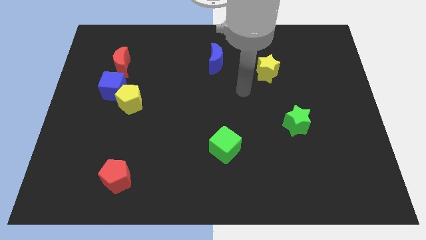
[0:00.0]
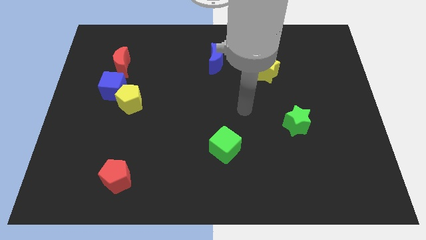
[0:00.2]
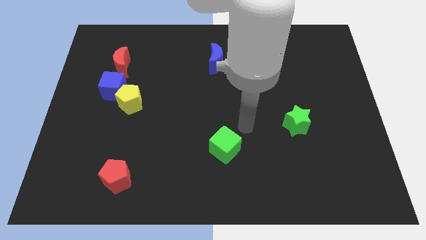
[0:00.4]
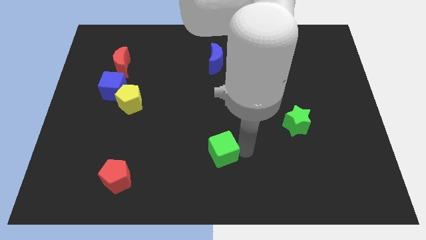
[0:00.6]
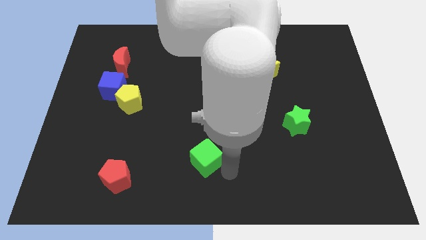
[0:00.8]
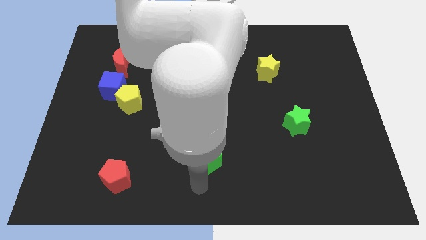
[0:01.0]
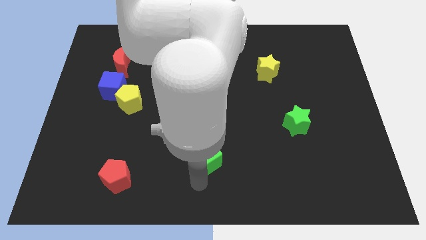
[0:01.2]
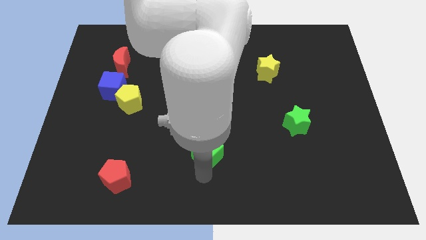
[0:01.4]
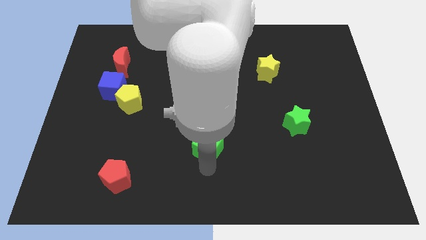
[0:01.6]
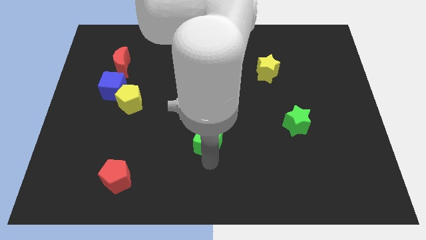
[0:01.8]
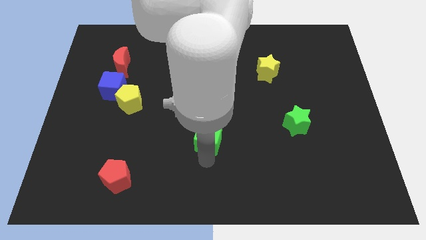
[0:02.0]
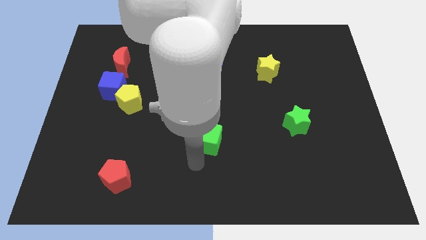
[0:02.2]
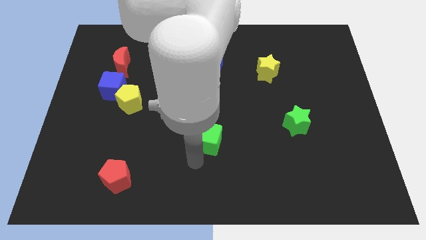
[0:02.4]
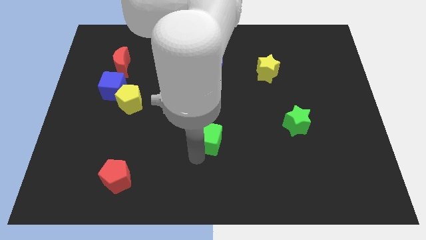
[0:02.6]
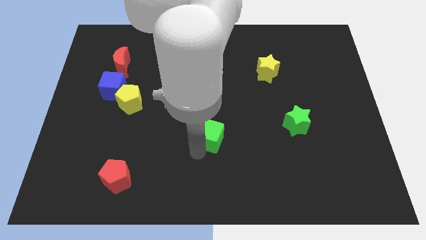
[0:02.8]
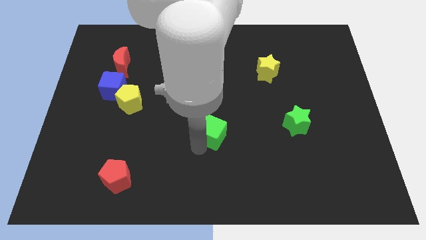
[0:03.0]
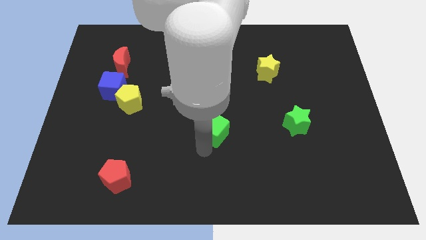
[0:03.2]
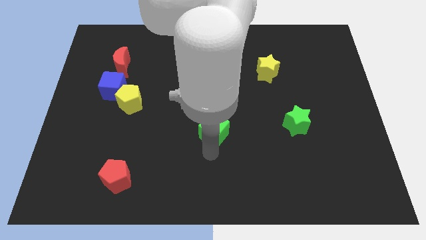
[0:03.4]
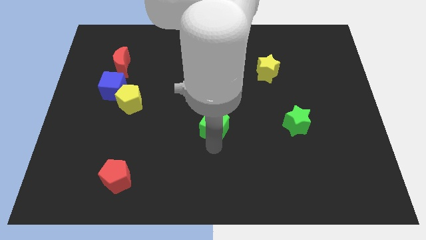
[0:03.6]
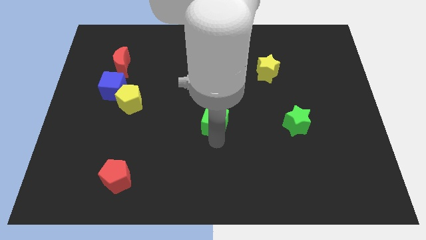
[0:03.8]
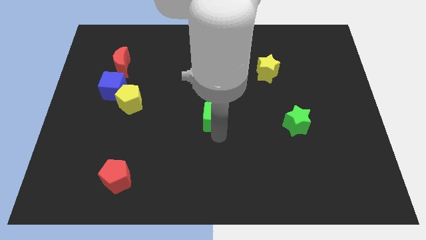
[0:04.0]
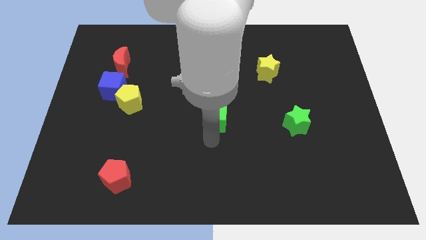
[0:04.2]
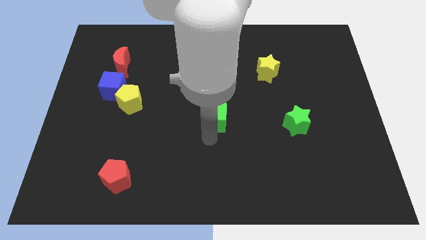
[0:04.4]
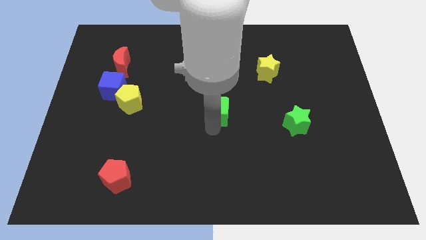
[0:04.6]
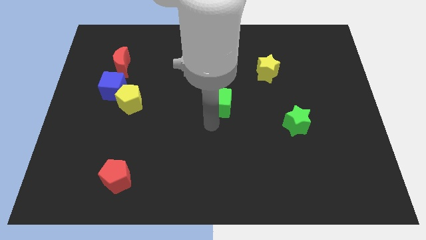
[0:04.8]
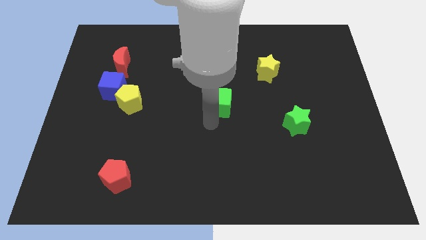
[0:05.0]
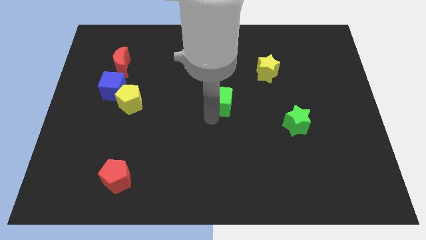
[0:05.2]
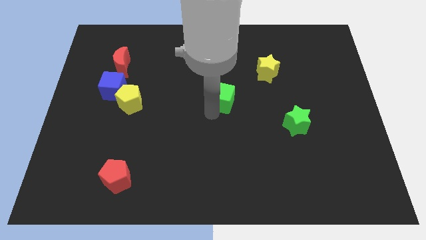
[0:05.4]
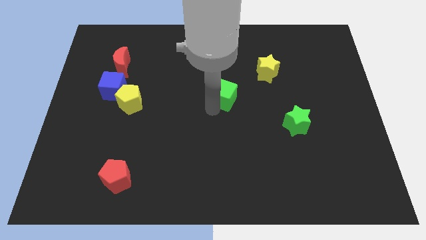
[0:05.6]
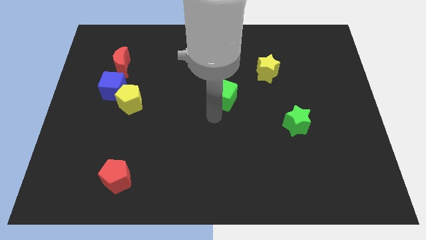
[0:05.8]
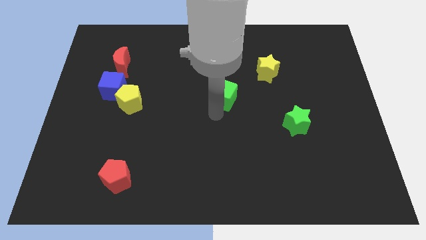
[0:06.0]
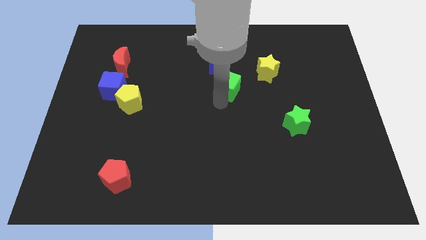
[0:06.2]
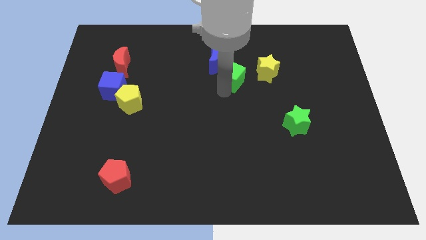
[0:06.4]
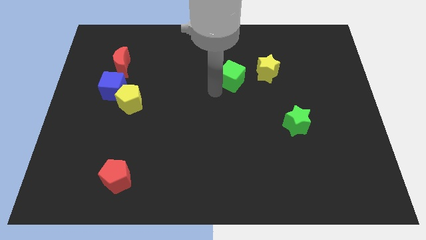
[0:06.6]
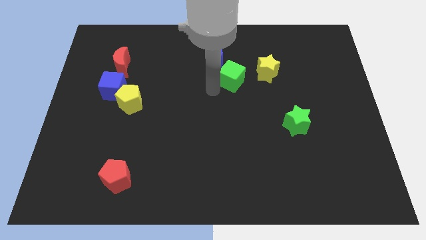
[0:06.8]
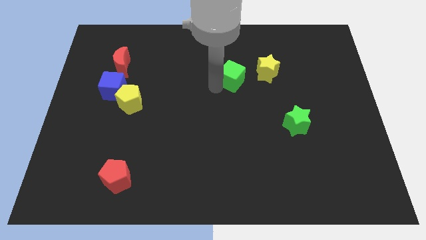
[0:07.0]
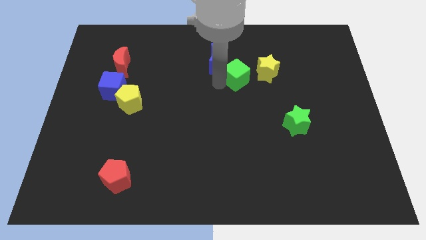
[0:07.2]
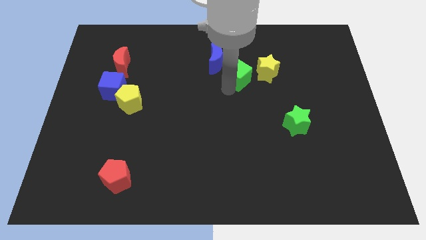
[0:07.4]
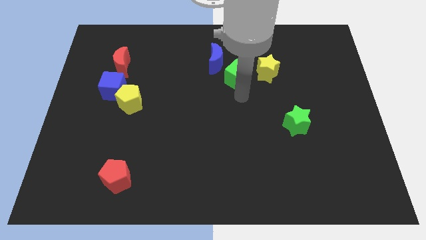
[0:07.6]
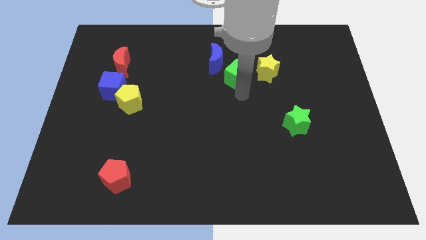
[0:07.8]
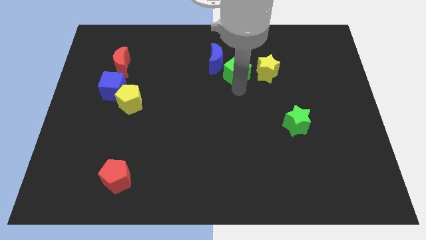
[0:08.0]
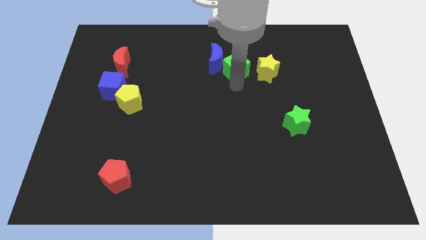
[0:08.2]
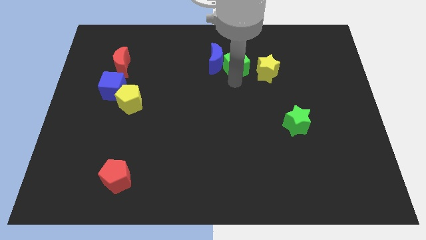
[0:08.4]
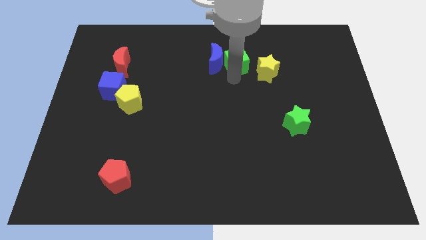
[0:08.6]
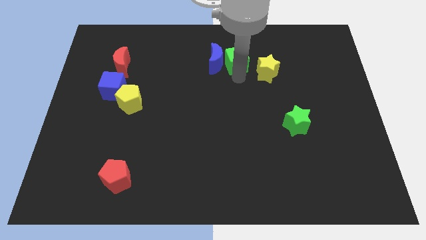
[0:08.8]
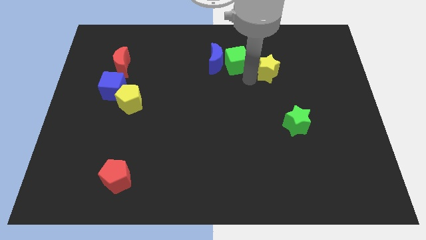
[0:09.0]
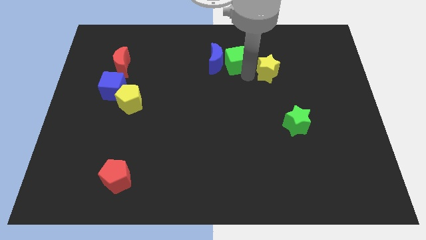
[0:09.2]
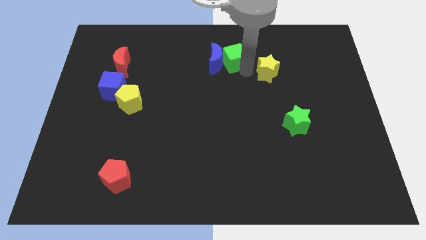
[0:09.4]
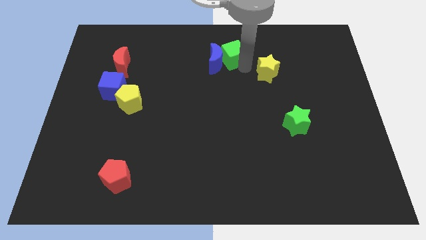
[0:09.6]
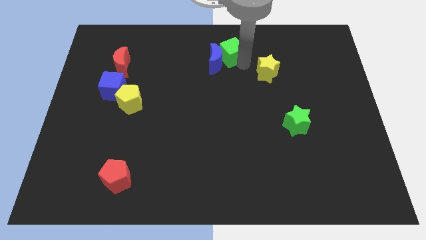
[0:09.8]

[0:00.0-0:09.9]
slide the green cube to the towards your base

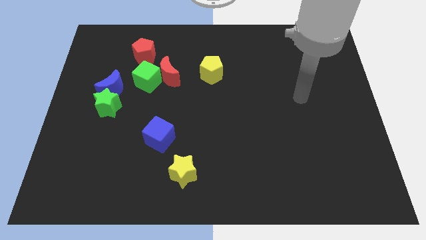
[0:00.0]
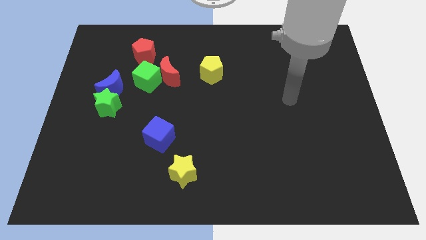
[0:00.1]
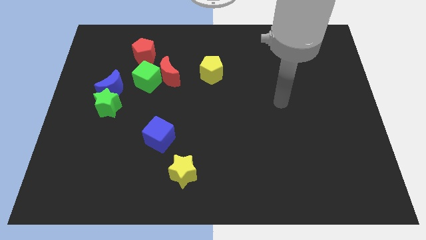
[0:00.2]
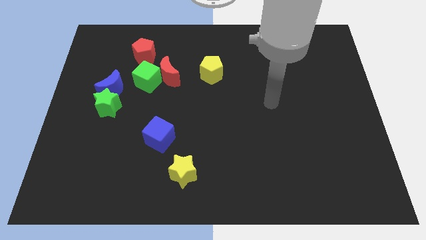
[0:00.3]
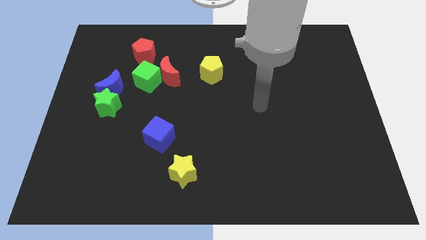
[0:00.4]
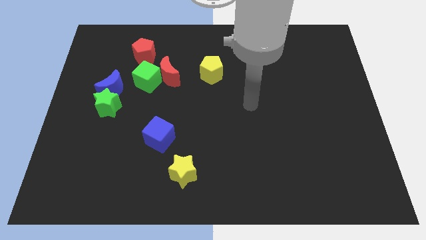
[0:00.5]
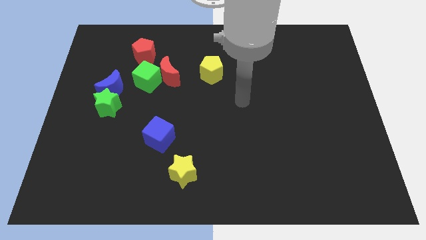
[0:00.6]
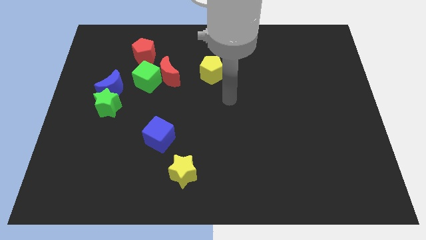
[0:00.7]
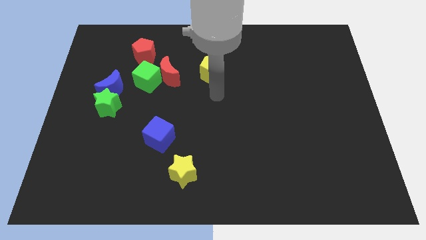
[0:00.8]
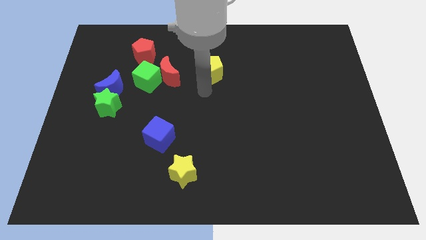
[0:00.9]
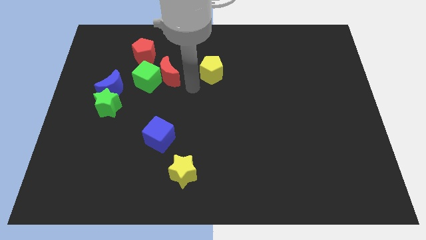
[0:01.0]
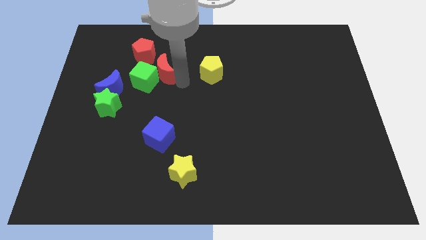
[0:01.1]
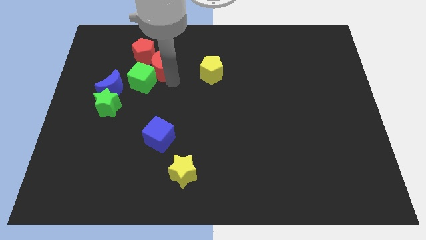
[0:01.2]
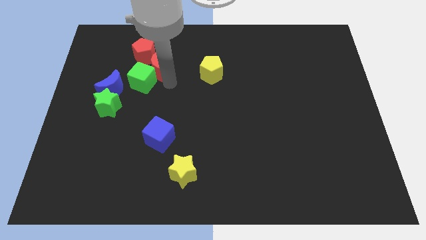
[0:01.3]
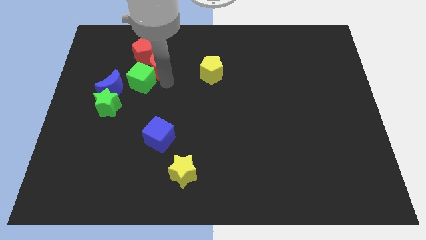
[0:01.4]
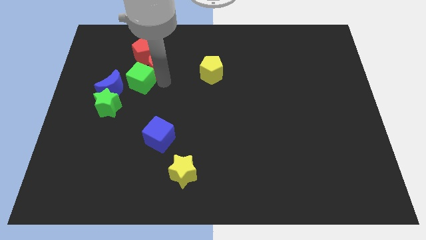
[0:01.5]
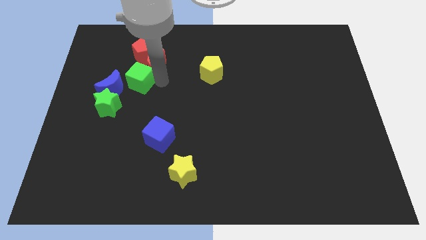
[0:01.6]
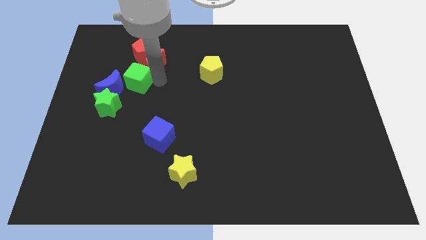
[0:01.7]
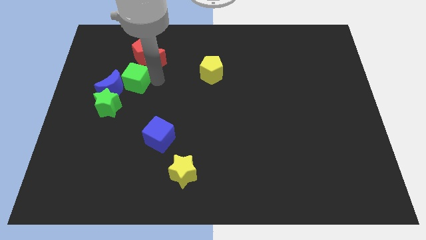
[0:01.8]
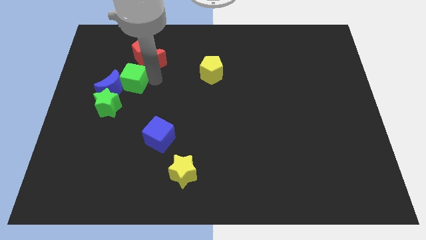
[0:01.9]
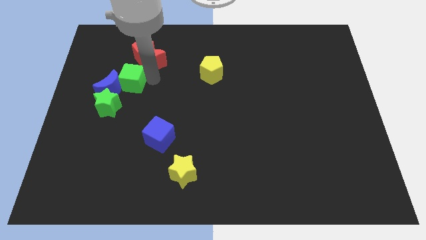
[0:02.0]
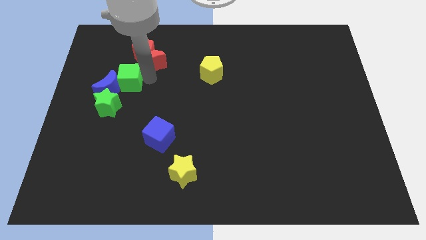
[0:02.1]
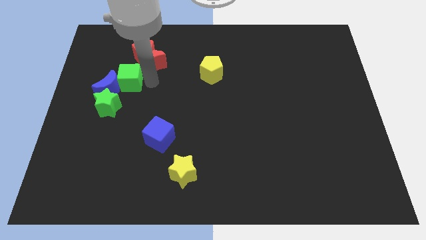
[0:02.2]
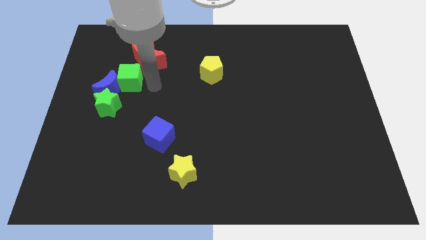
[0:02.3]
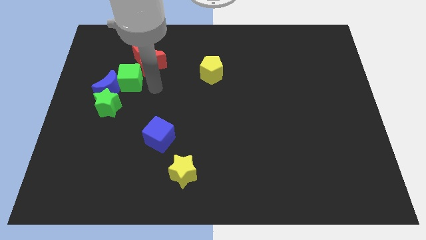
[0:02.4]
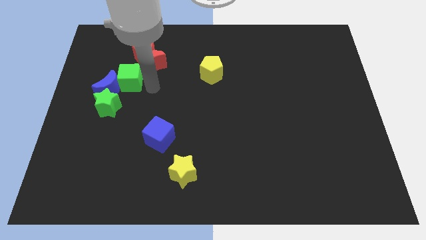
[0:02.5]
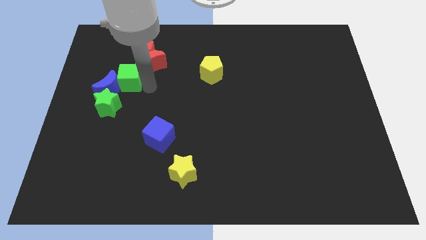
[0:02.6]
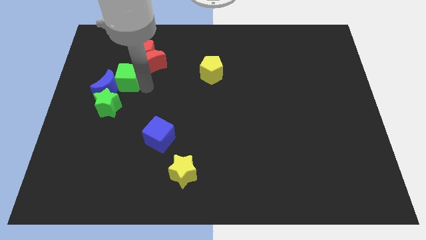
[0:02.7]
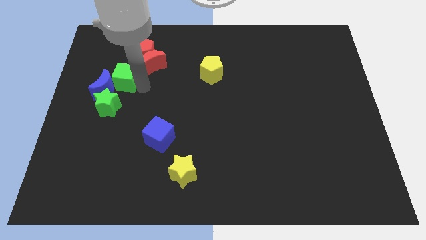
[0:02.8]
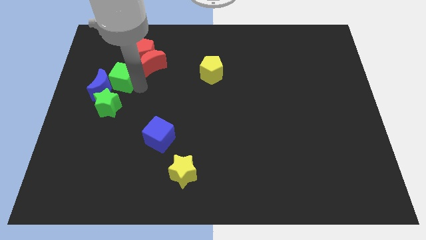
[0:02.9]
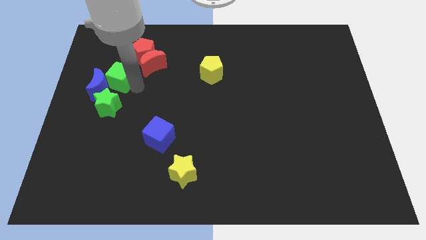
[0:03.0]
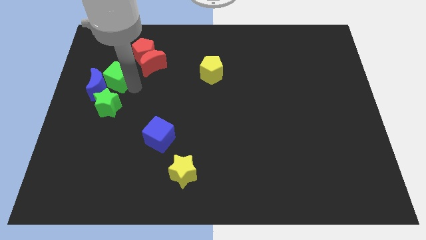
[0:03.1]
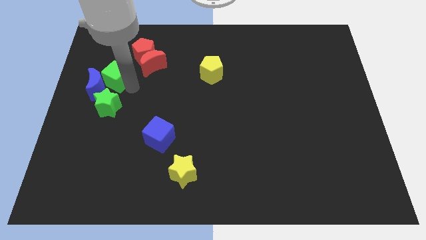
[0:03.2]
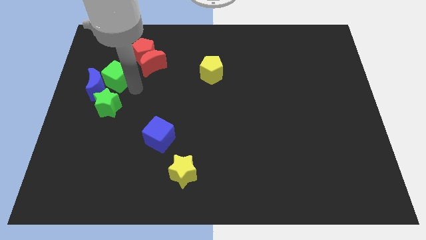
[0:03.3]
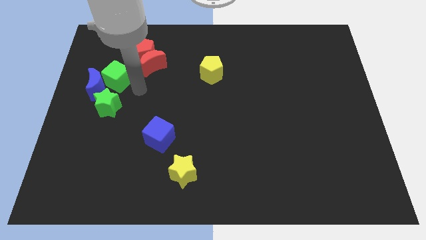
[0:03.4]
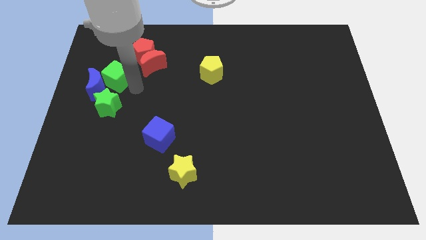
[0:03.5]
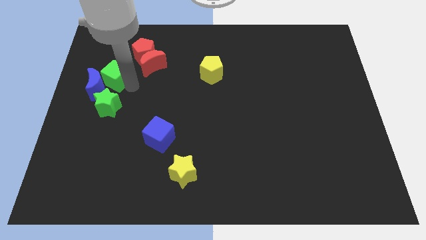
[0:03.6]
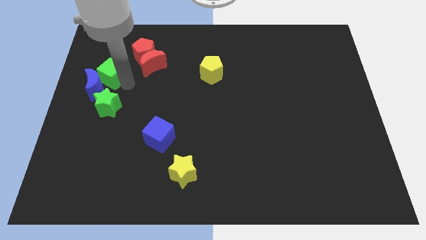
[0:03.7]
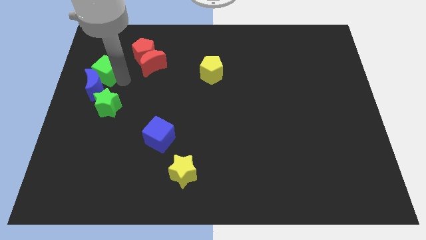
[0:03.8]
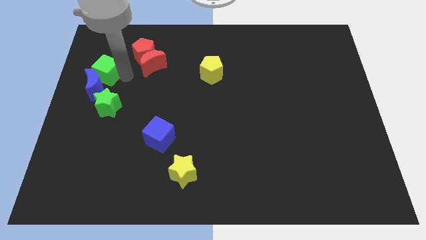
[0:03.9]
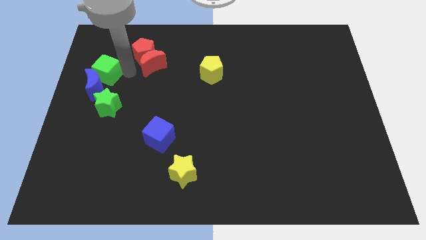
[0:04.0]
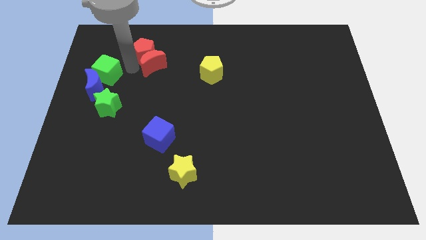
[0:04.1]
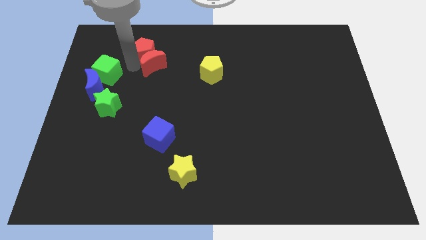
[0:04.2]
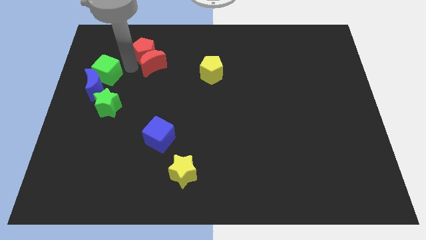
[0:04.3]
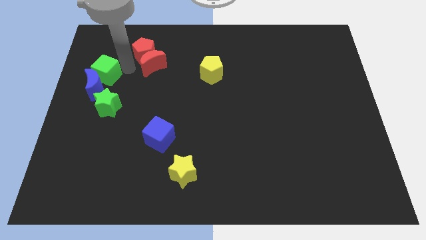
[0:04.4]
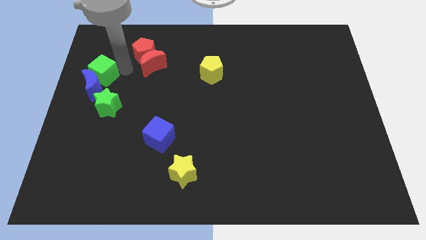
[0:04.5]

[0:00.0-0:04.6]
put the green cube to the left side
